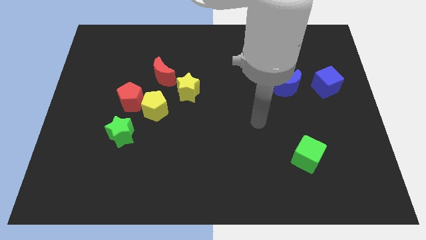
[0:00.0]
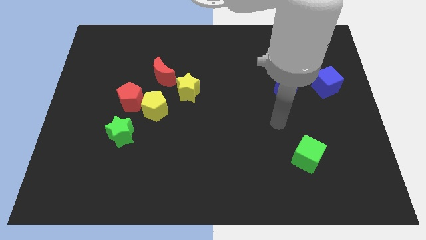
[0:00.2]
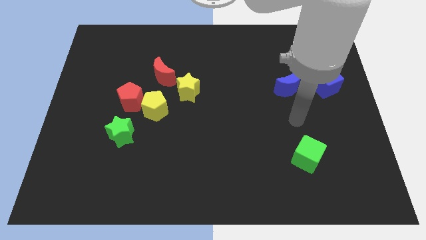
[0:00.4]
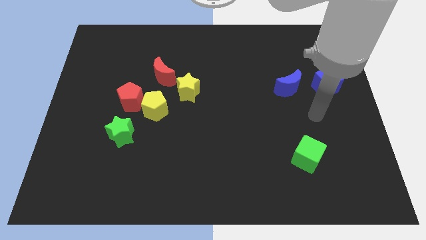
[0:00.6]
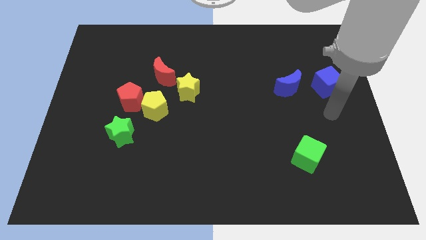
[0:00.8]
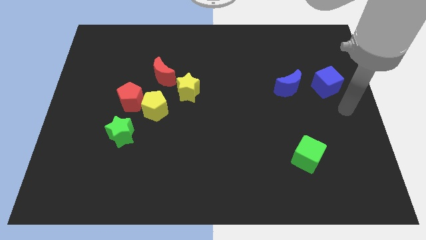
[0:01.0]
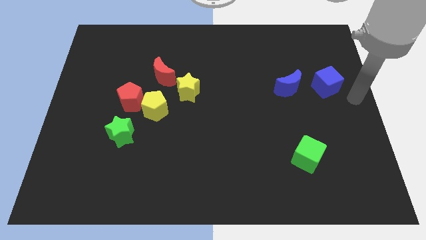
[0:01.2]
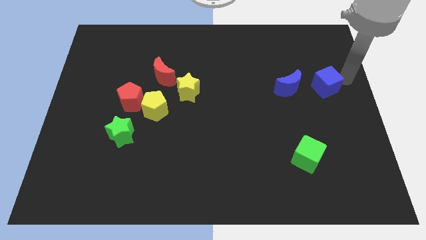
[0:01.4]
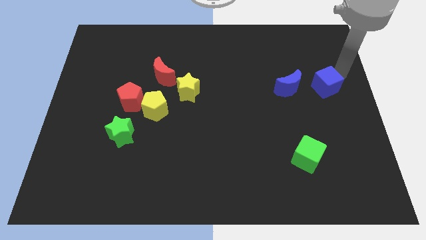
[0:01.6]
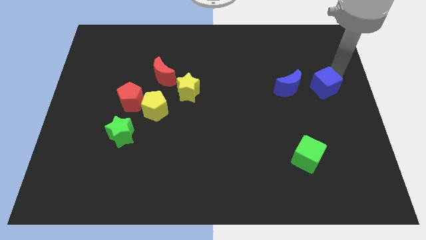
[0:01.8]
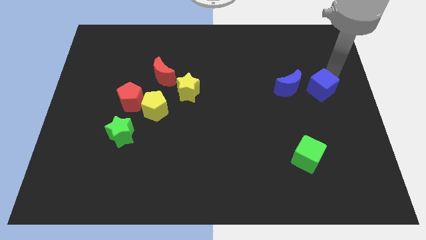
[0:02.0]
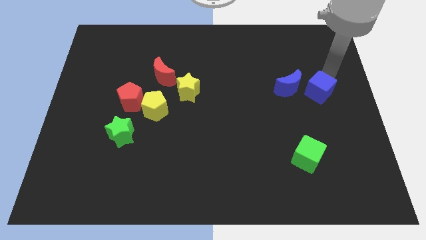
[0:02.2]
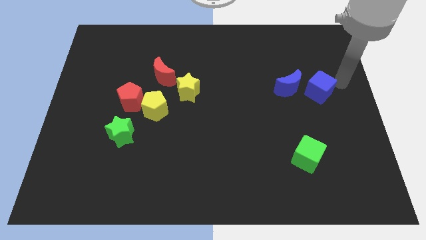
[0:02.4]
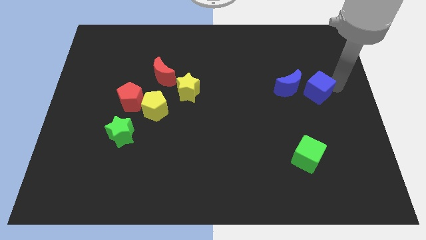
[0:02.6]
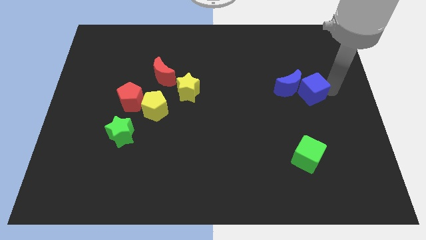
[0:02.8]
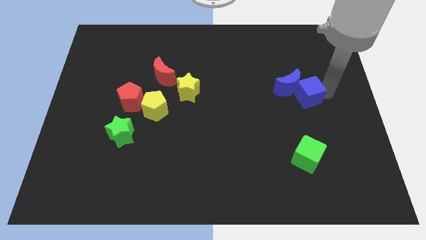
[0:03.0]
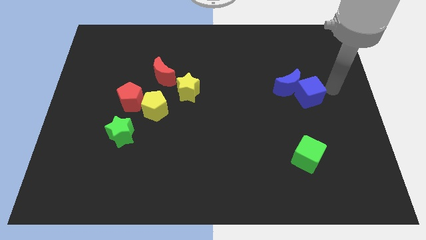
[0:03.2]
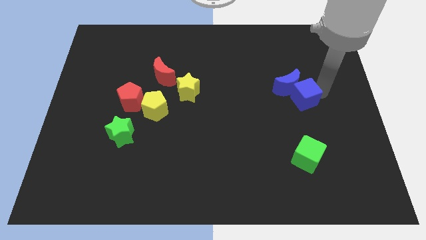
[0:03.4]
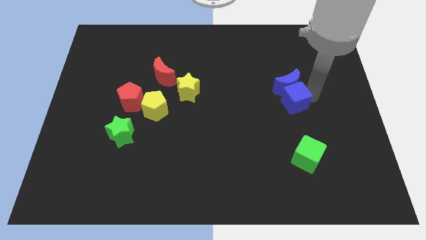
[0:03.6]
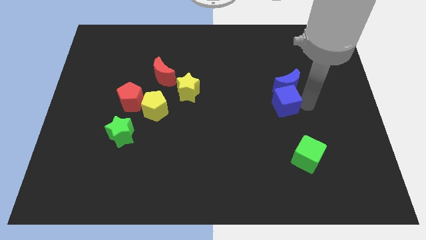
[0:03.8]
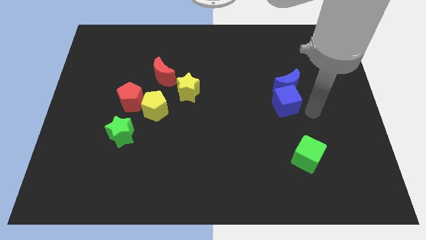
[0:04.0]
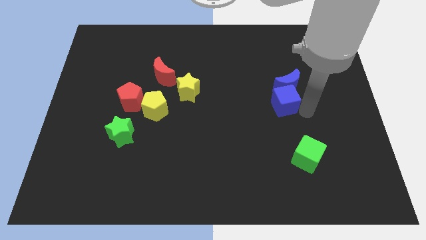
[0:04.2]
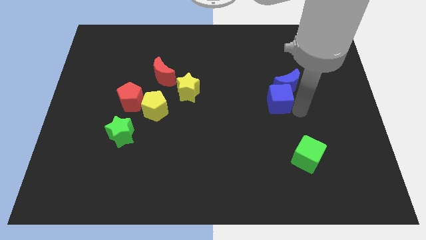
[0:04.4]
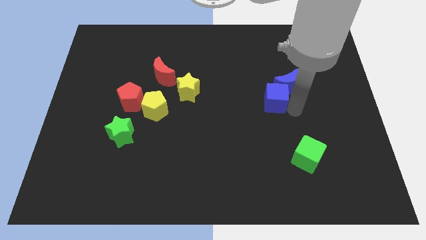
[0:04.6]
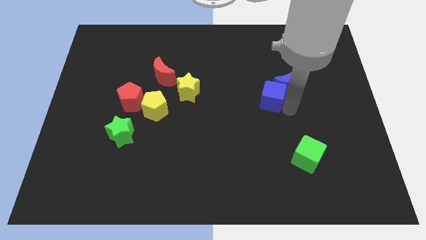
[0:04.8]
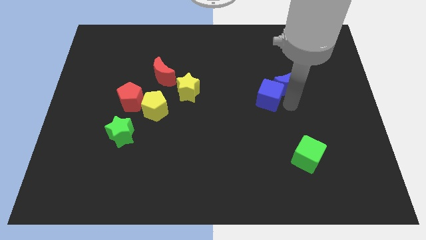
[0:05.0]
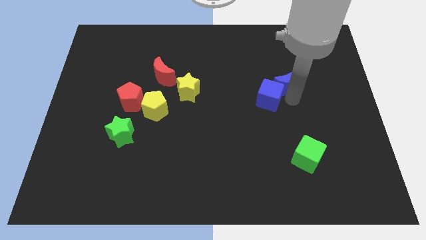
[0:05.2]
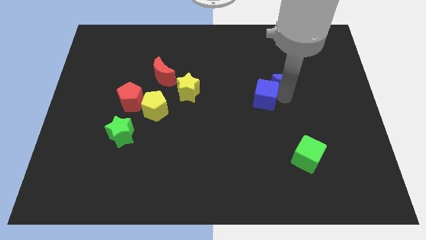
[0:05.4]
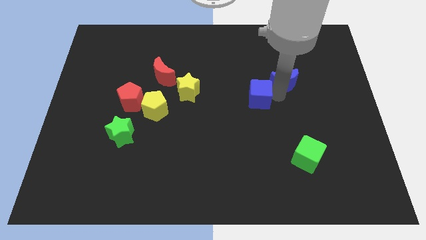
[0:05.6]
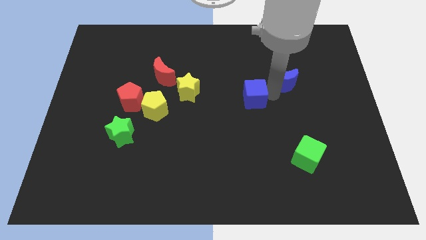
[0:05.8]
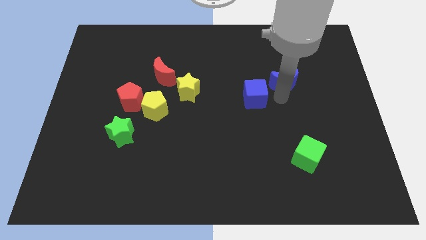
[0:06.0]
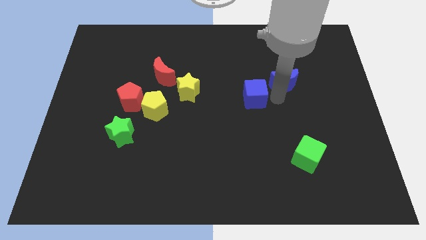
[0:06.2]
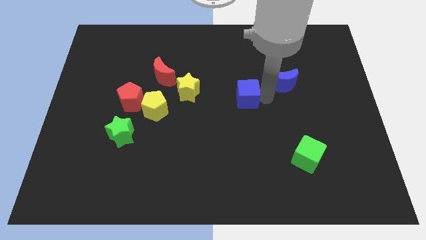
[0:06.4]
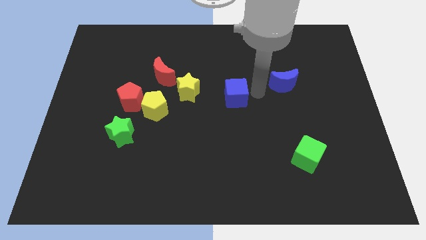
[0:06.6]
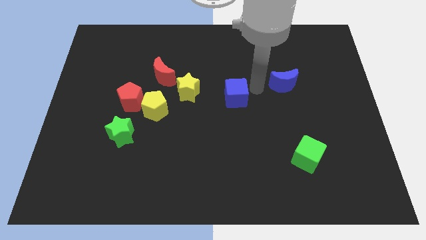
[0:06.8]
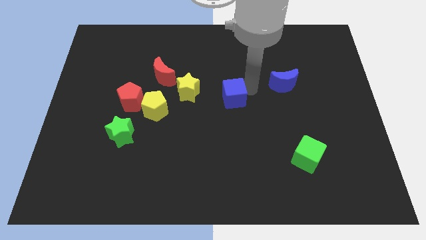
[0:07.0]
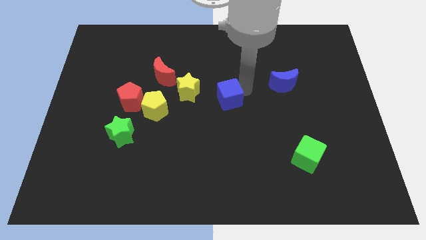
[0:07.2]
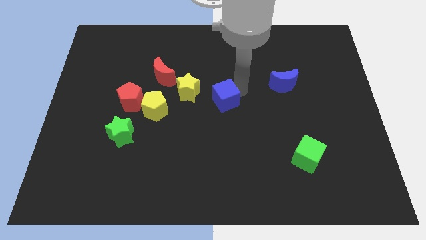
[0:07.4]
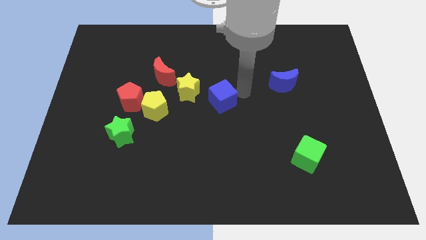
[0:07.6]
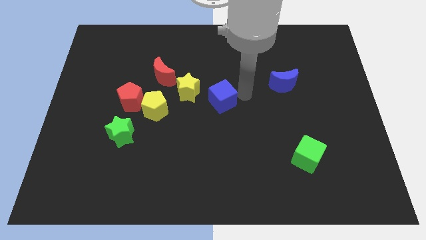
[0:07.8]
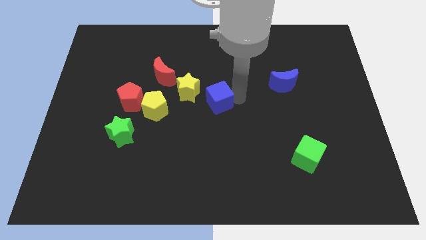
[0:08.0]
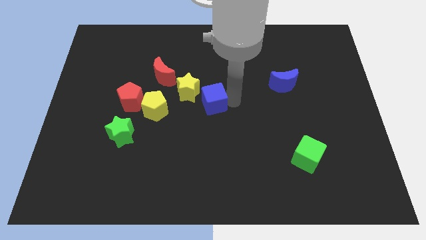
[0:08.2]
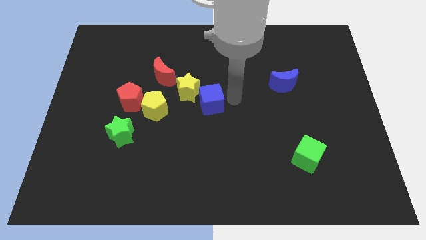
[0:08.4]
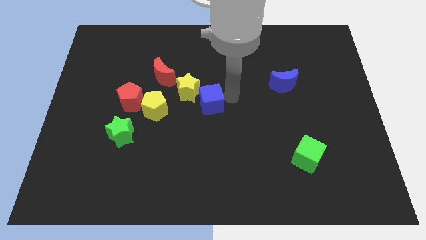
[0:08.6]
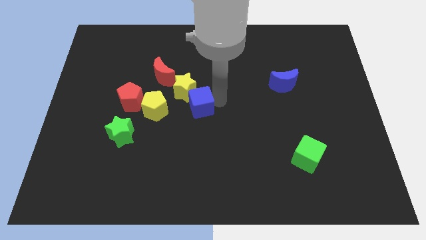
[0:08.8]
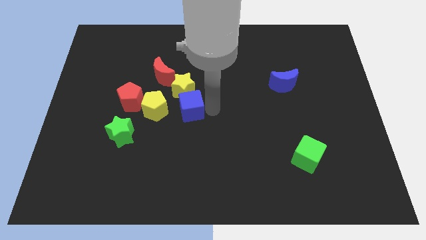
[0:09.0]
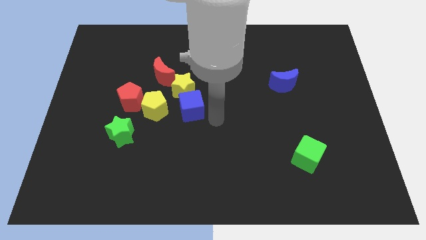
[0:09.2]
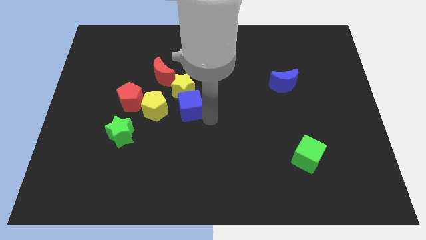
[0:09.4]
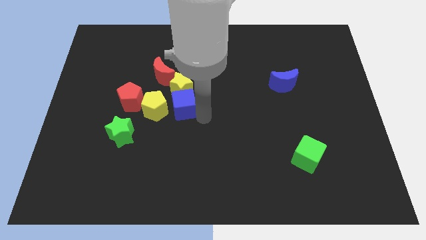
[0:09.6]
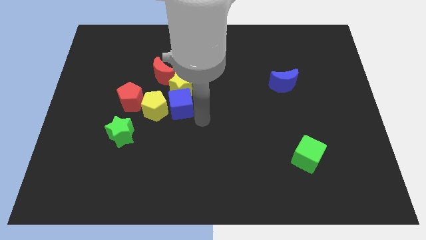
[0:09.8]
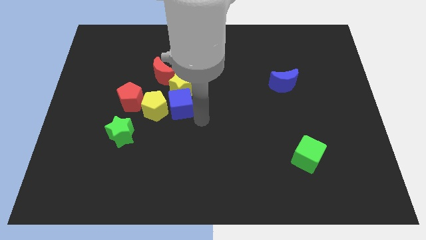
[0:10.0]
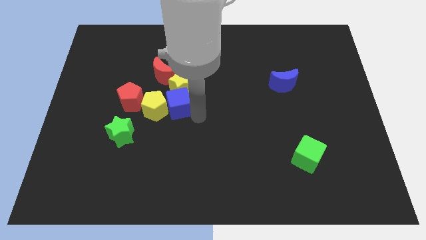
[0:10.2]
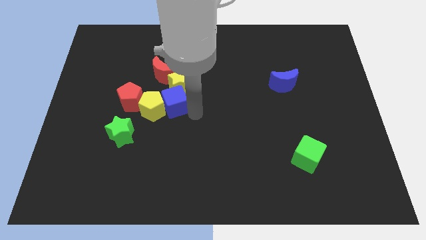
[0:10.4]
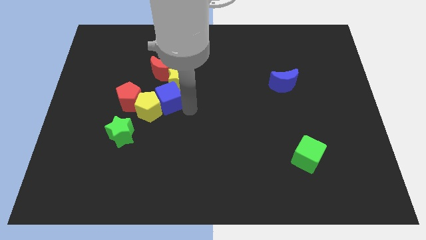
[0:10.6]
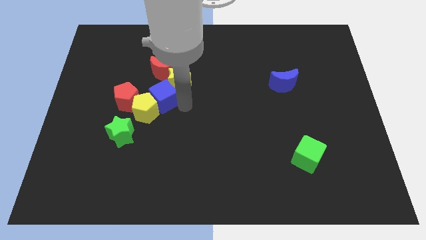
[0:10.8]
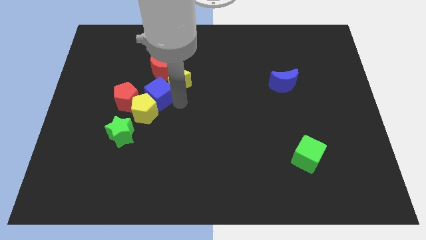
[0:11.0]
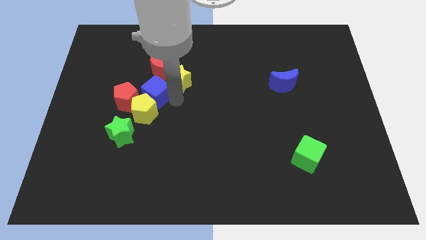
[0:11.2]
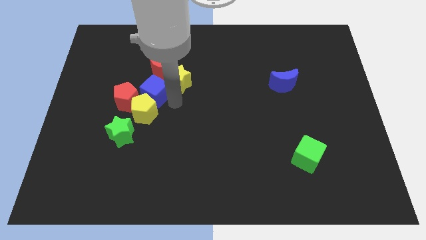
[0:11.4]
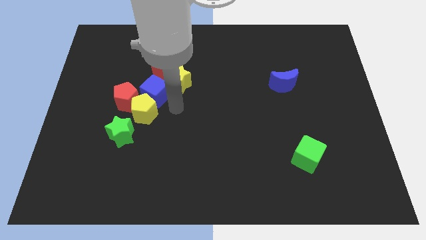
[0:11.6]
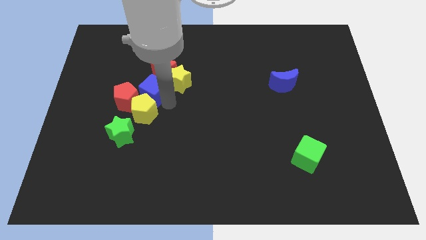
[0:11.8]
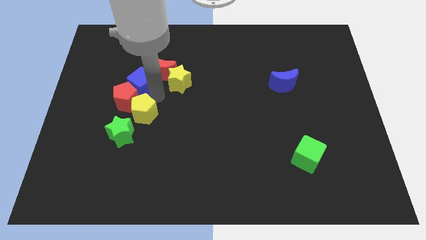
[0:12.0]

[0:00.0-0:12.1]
move the blue cube left of the red moon
